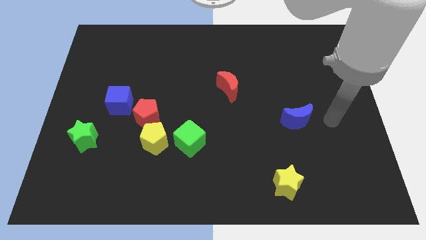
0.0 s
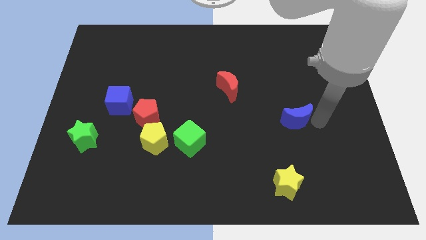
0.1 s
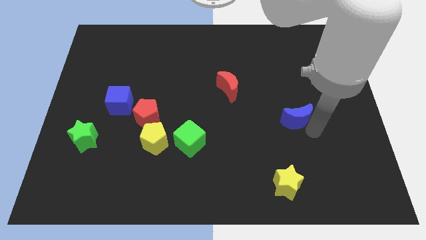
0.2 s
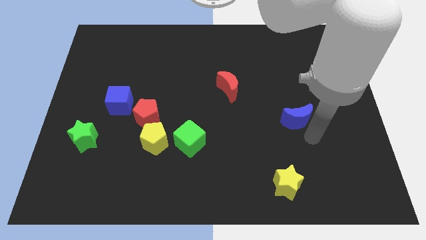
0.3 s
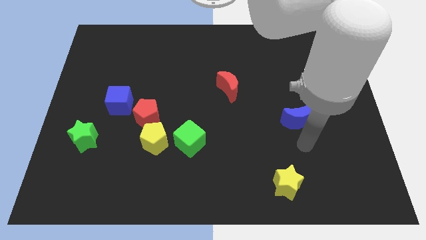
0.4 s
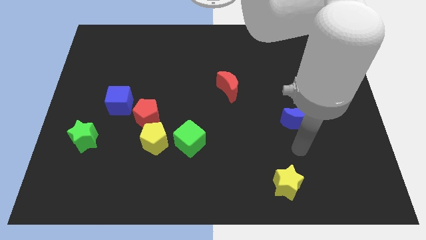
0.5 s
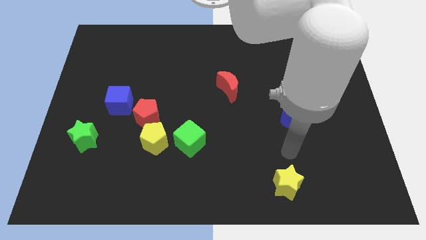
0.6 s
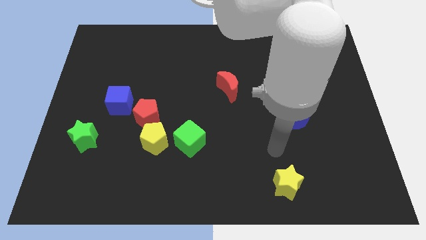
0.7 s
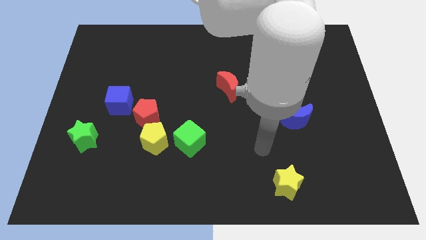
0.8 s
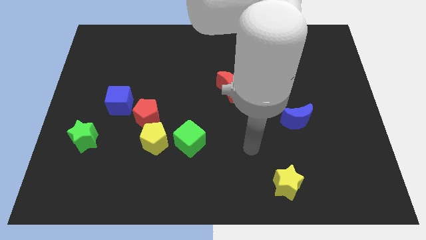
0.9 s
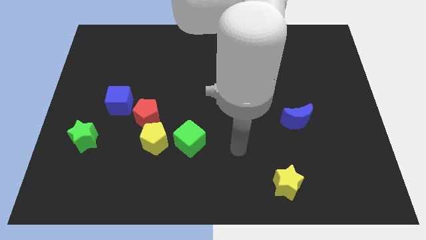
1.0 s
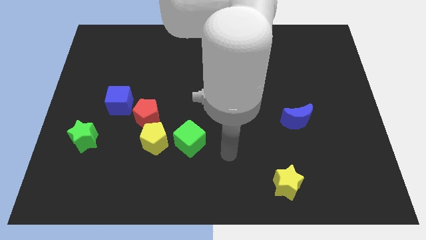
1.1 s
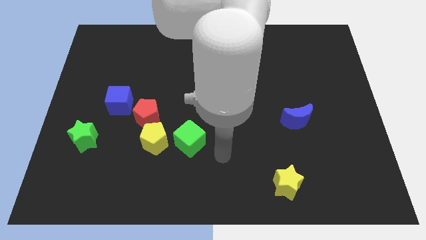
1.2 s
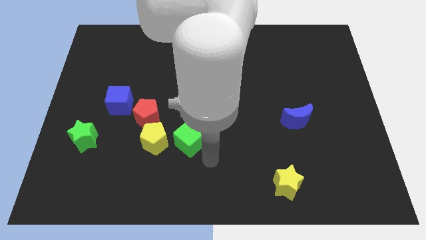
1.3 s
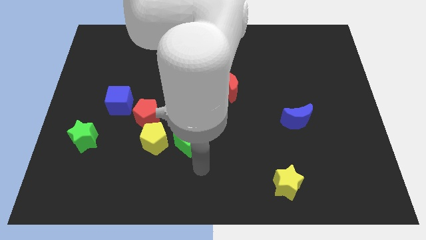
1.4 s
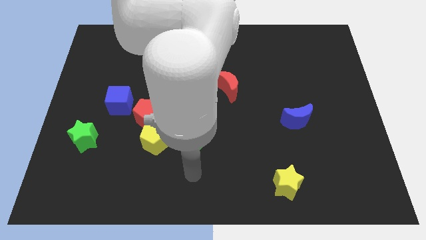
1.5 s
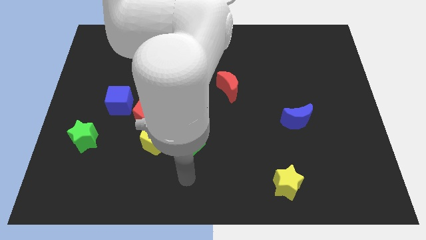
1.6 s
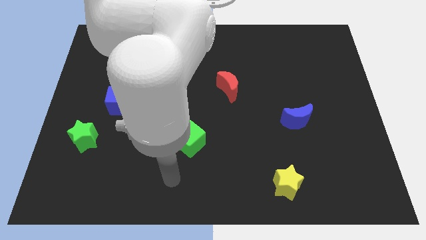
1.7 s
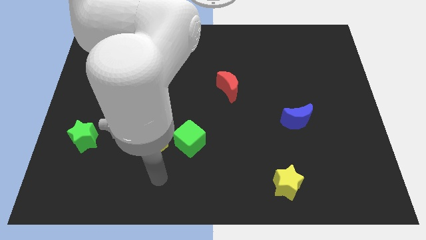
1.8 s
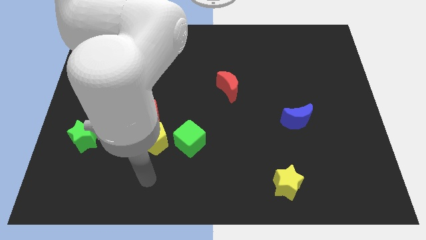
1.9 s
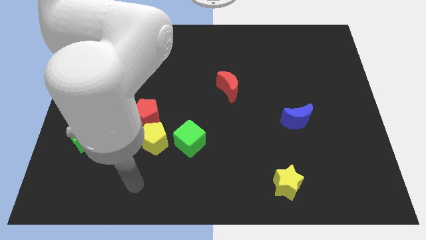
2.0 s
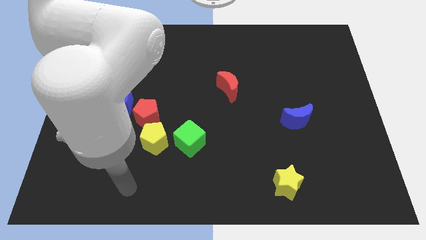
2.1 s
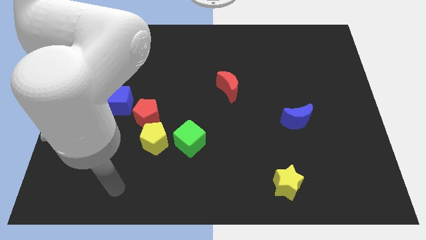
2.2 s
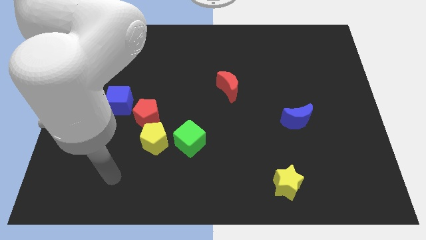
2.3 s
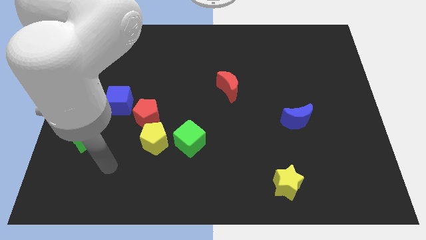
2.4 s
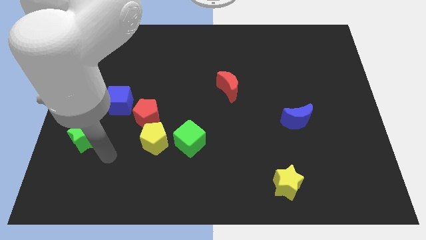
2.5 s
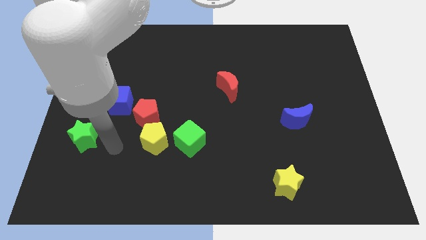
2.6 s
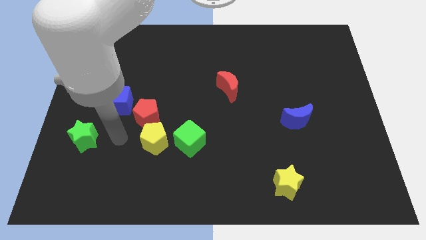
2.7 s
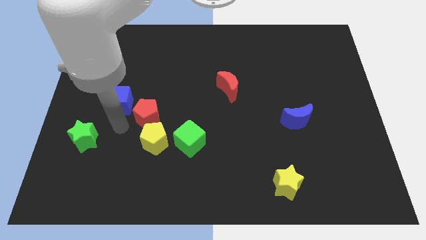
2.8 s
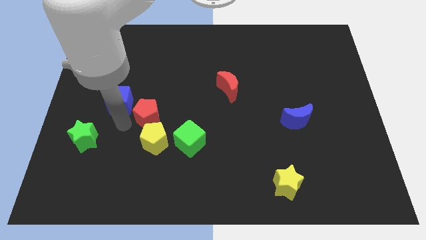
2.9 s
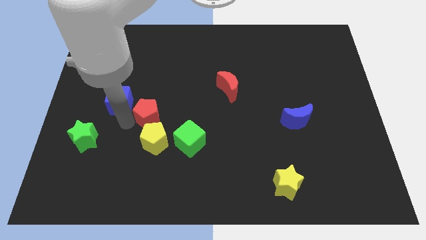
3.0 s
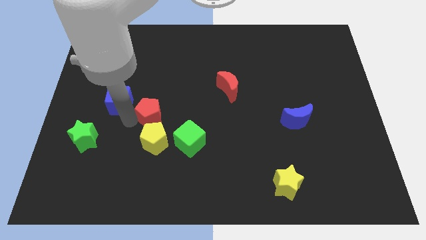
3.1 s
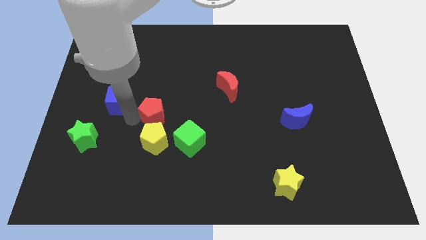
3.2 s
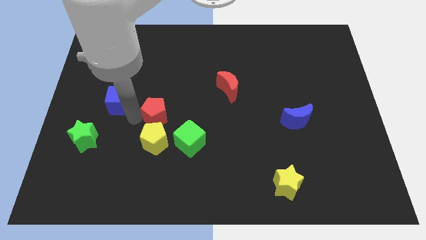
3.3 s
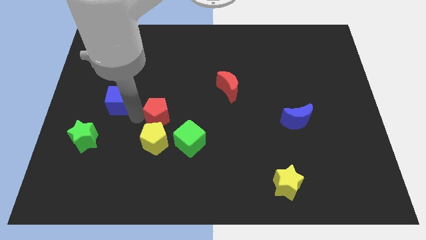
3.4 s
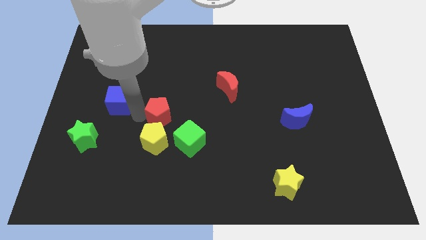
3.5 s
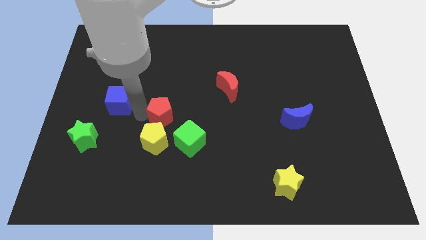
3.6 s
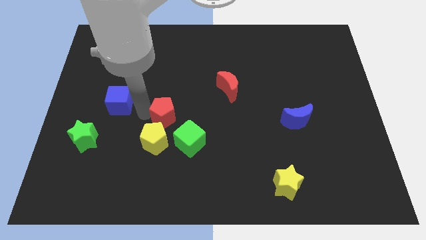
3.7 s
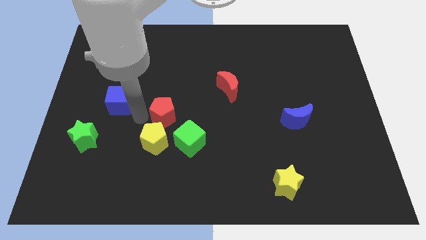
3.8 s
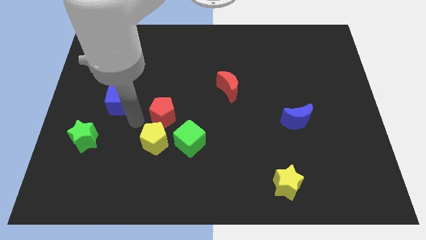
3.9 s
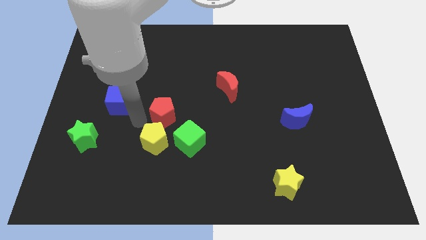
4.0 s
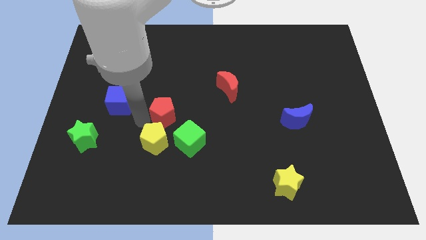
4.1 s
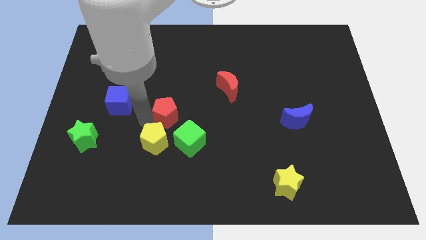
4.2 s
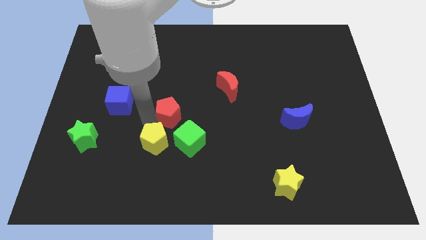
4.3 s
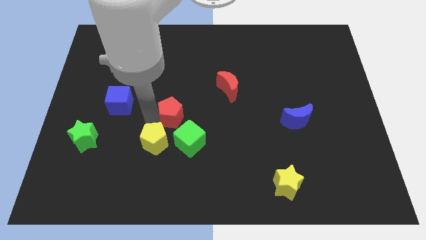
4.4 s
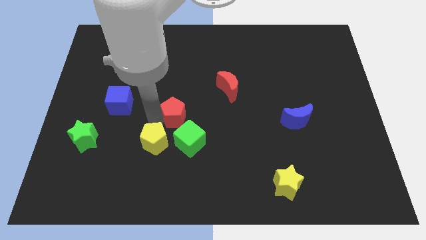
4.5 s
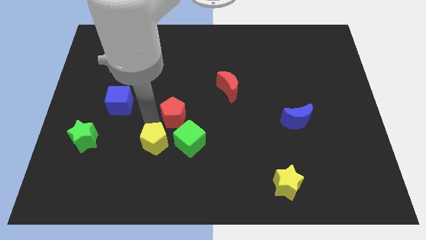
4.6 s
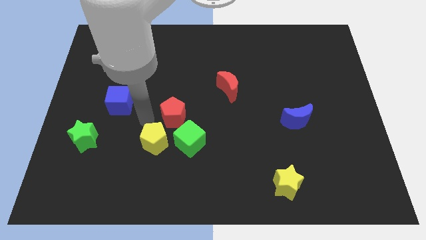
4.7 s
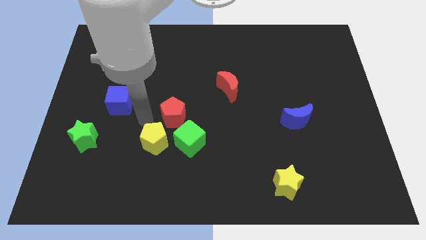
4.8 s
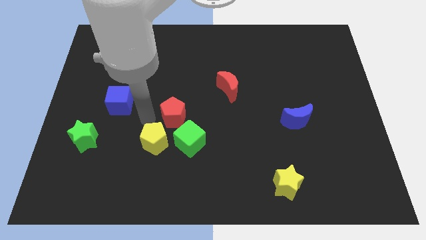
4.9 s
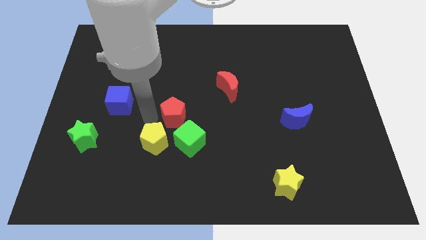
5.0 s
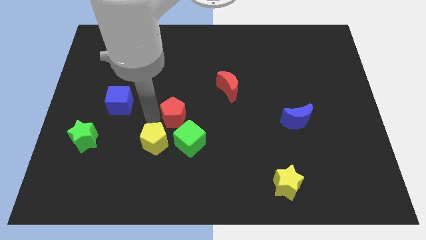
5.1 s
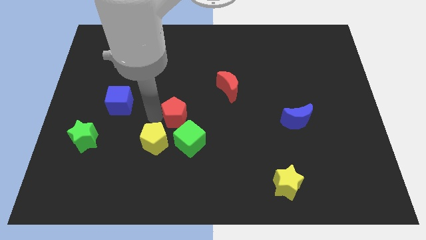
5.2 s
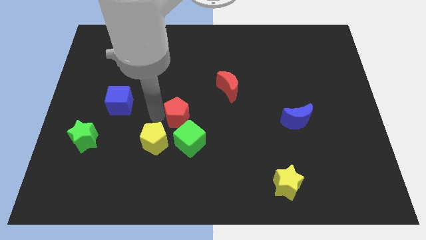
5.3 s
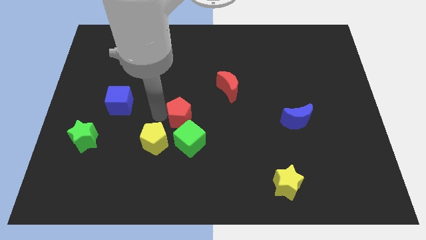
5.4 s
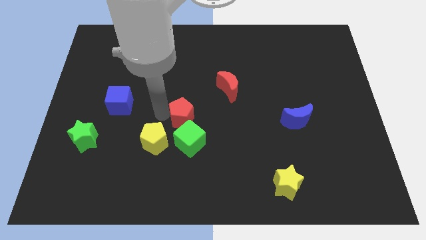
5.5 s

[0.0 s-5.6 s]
move the red pentagon away from the yellow pentagon and blue cube

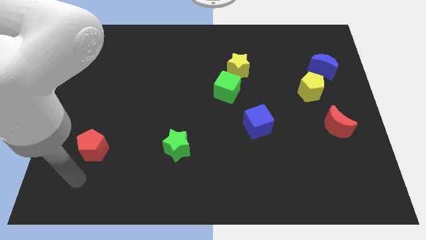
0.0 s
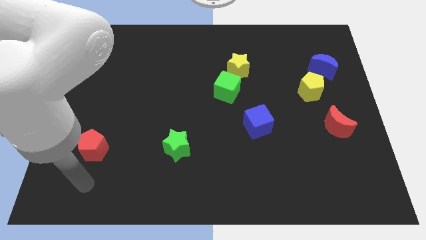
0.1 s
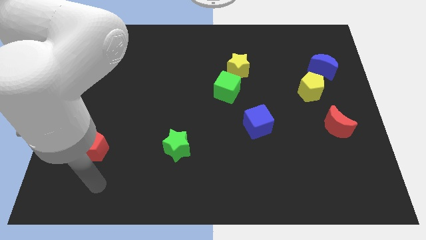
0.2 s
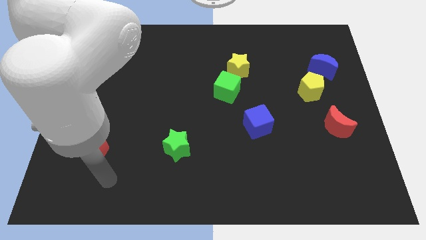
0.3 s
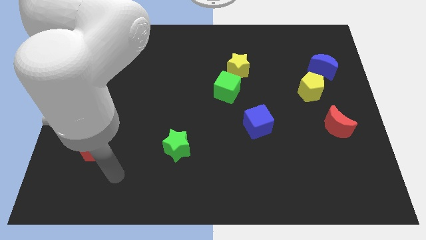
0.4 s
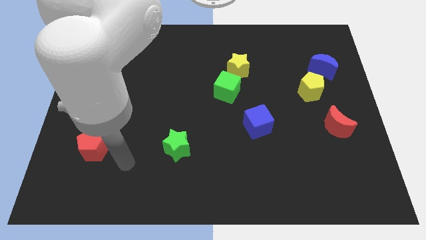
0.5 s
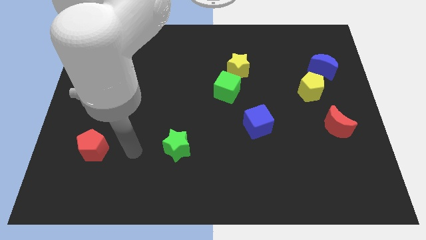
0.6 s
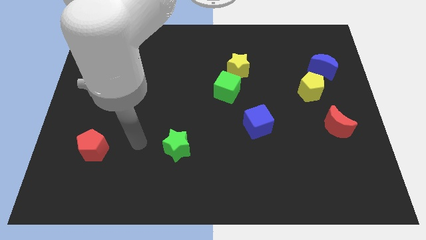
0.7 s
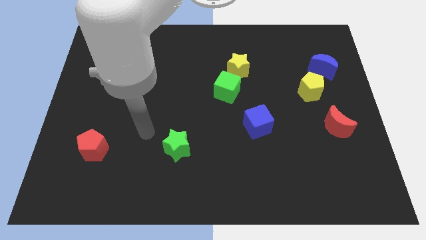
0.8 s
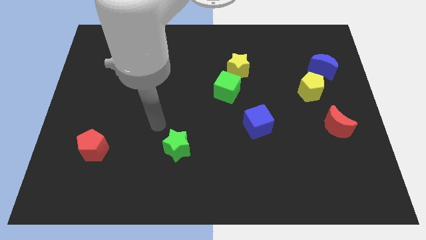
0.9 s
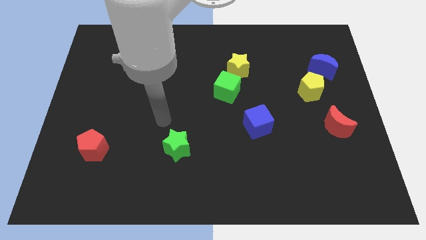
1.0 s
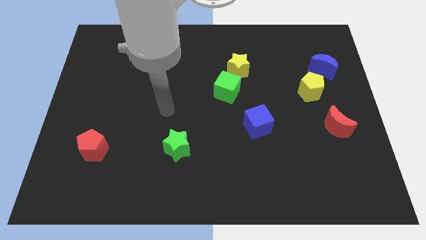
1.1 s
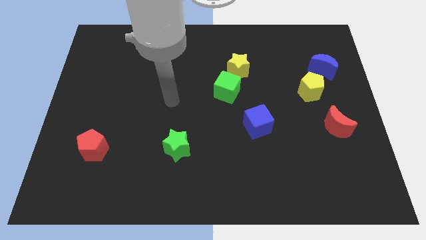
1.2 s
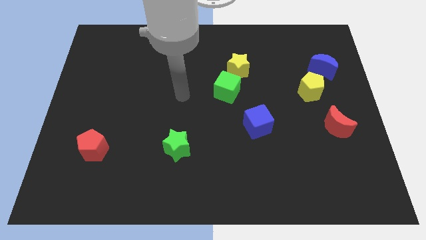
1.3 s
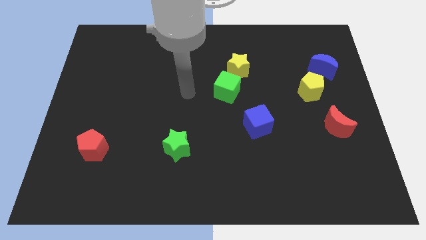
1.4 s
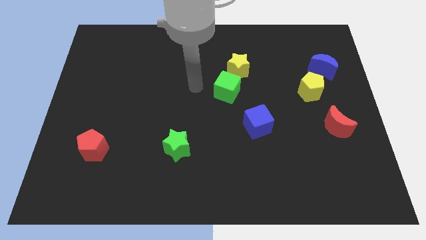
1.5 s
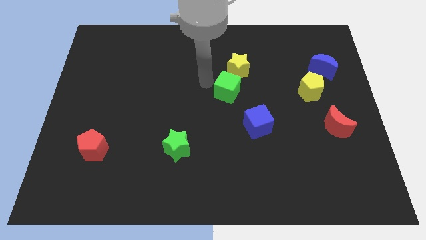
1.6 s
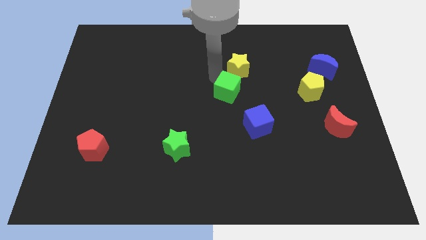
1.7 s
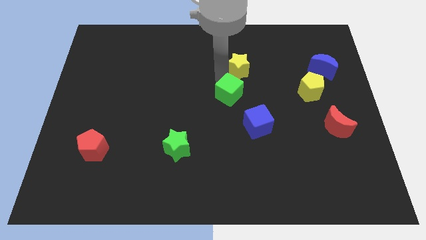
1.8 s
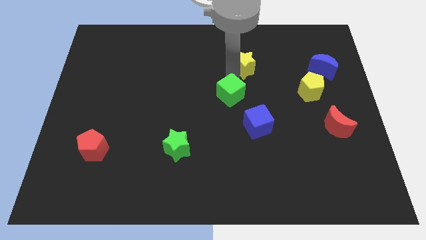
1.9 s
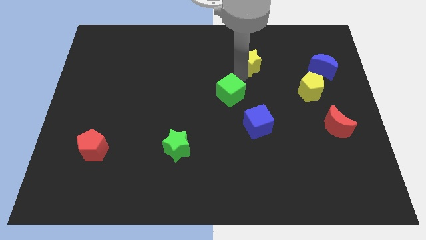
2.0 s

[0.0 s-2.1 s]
move the green cube away from the yellow star

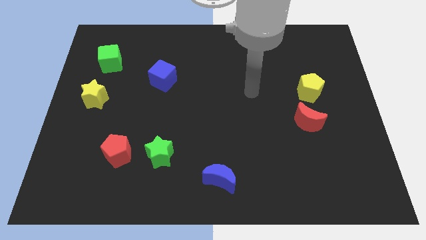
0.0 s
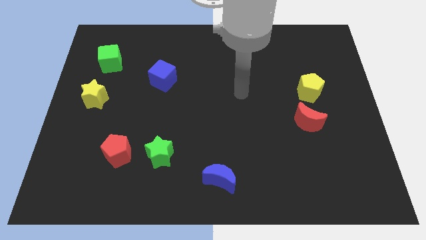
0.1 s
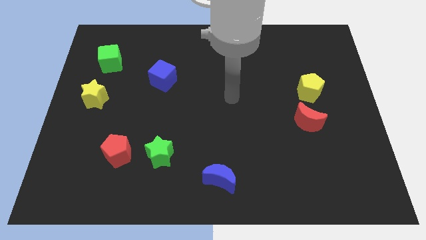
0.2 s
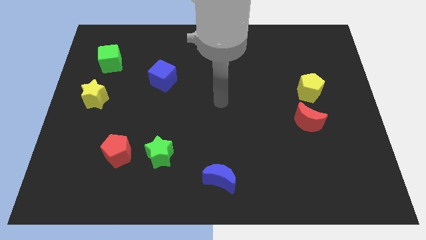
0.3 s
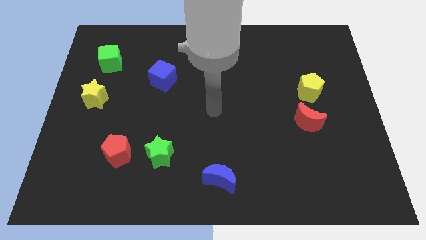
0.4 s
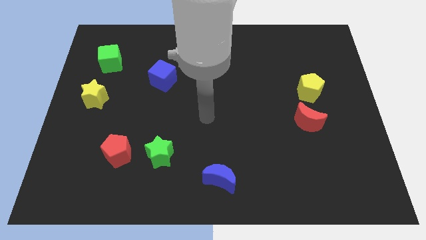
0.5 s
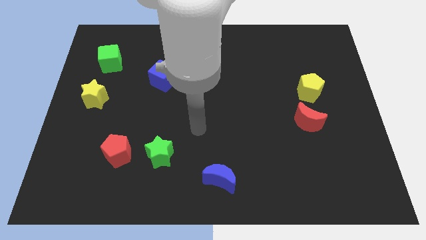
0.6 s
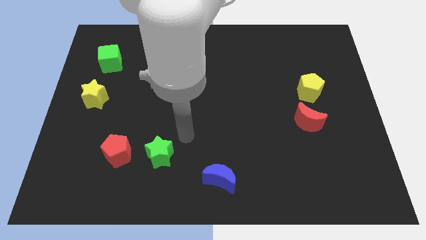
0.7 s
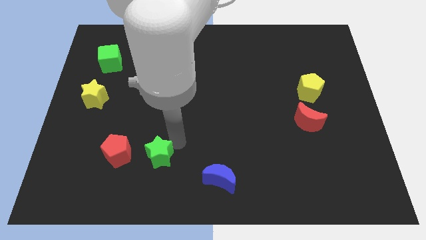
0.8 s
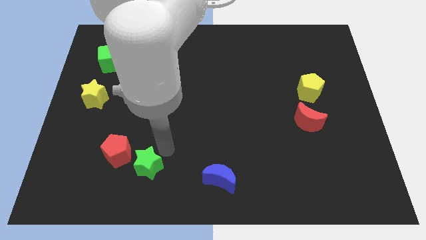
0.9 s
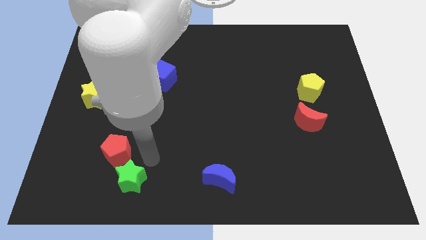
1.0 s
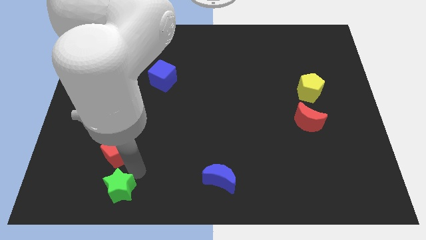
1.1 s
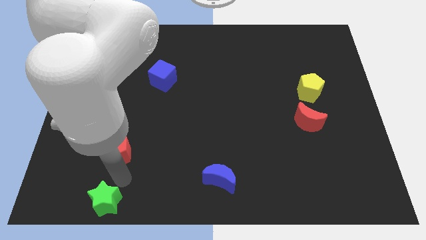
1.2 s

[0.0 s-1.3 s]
pull the red pentagon apart from the green star

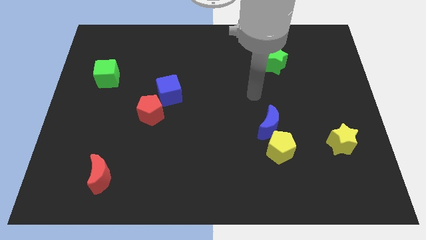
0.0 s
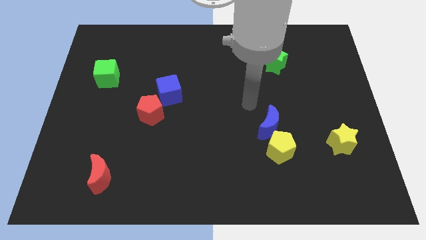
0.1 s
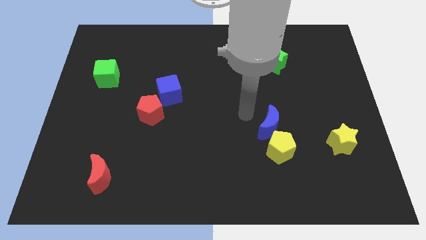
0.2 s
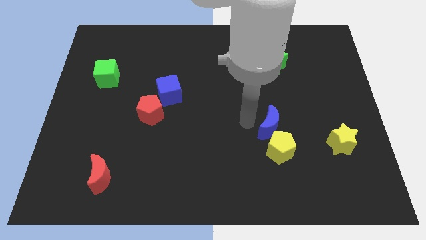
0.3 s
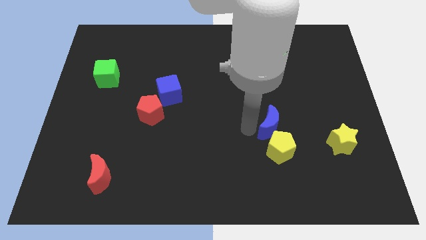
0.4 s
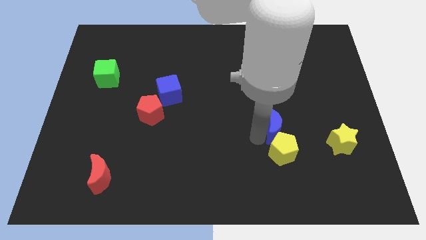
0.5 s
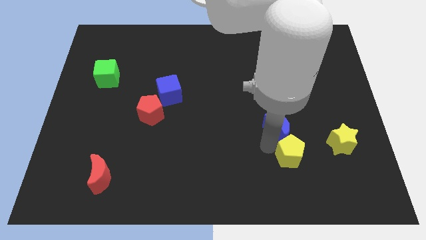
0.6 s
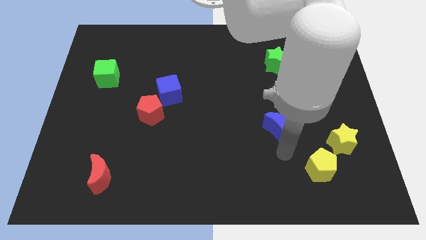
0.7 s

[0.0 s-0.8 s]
pull the blue moon apart from the yellow pentagon
